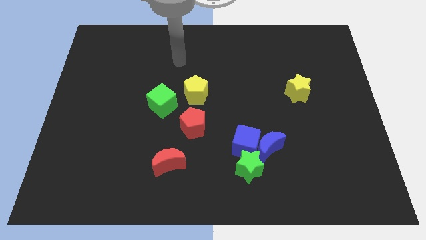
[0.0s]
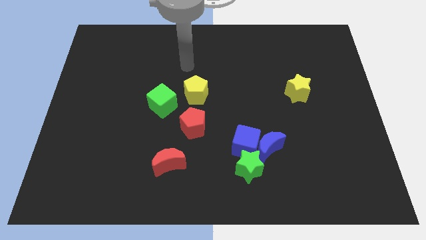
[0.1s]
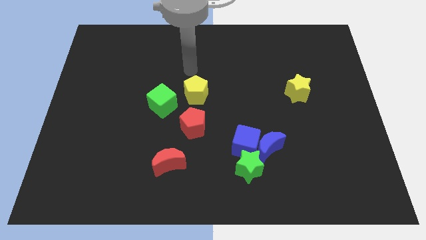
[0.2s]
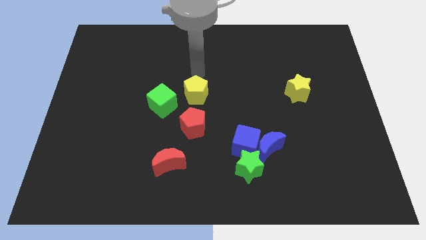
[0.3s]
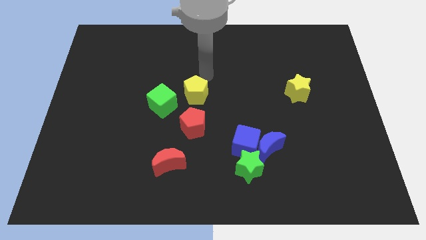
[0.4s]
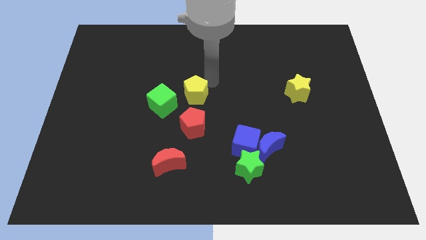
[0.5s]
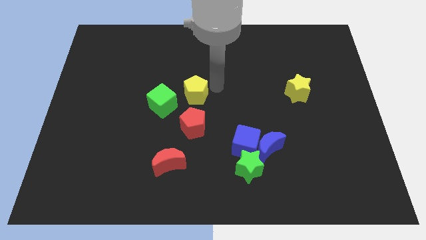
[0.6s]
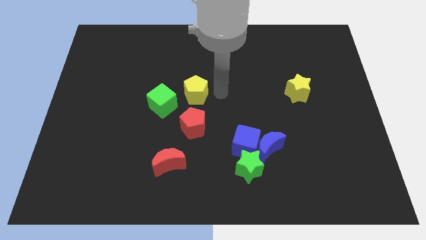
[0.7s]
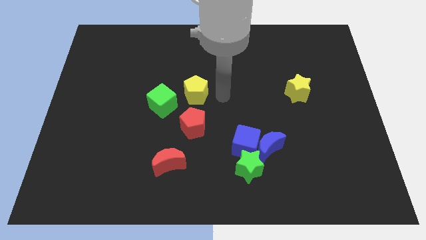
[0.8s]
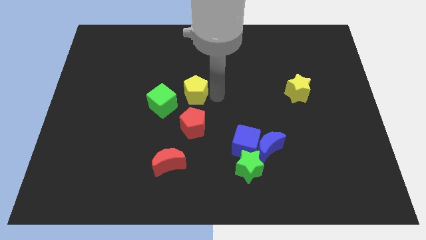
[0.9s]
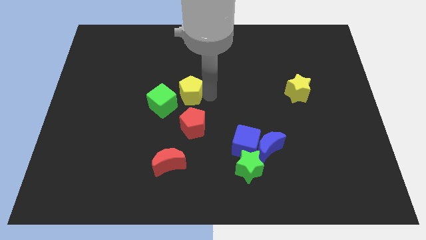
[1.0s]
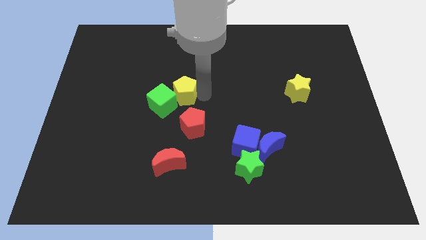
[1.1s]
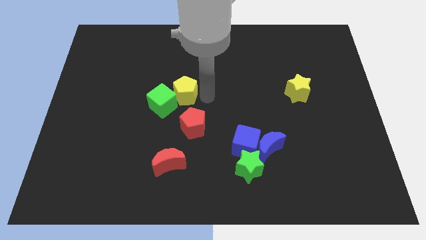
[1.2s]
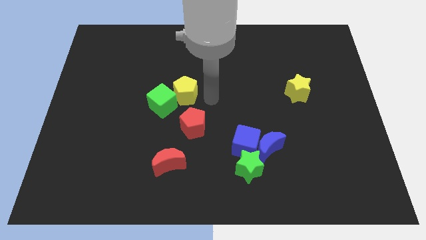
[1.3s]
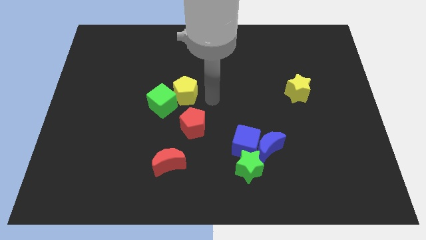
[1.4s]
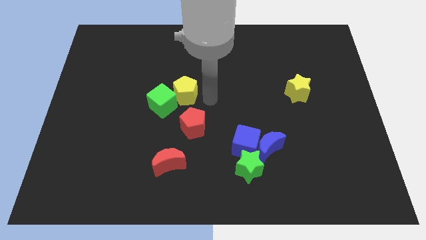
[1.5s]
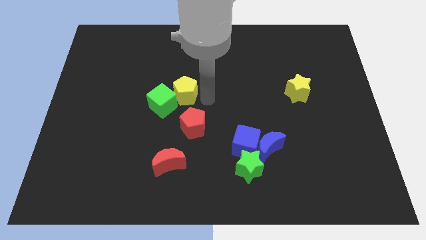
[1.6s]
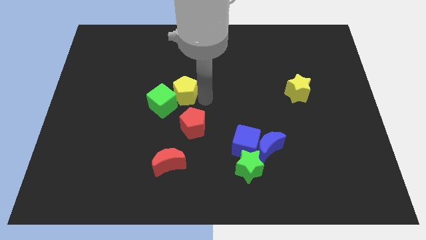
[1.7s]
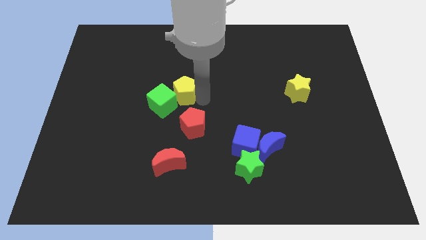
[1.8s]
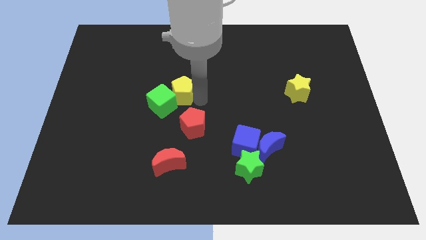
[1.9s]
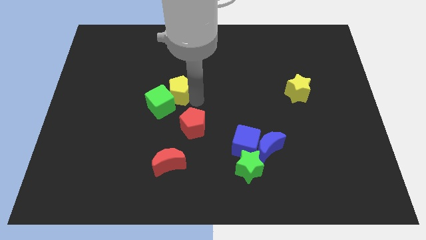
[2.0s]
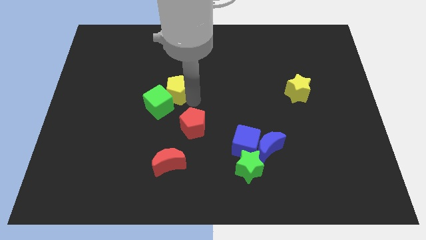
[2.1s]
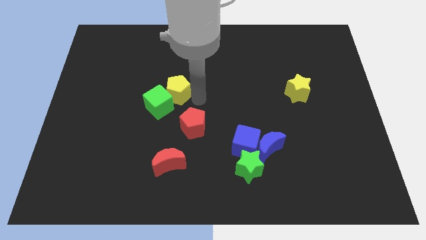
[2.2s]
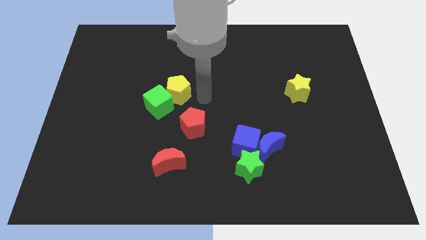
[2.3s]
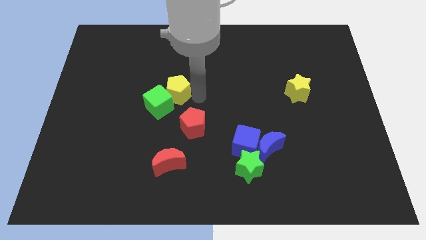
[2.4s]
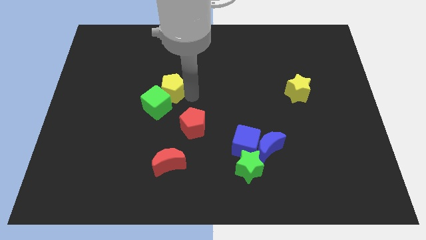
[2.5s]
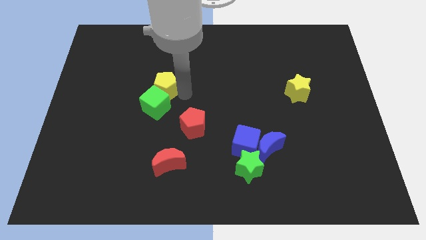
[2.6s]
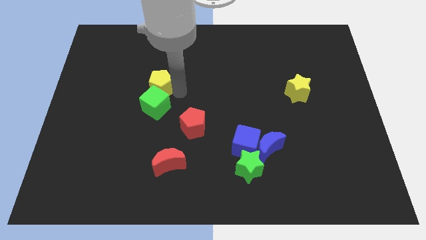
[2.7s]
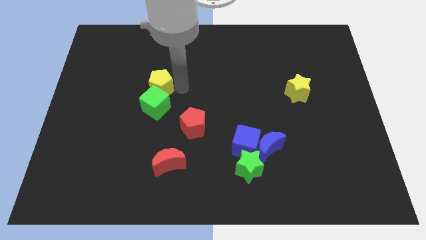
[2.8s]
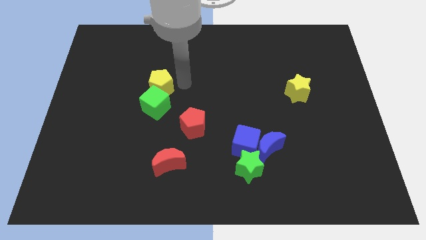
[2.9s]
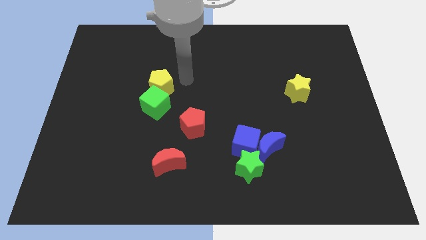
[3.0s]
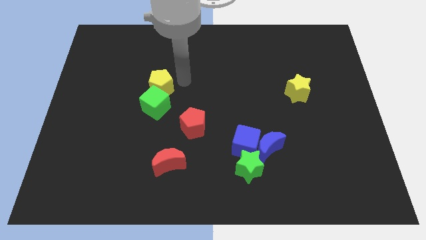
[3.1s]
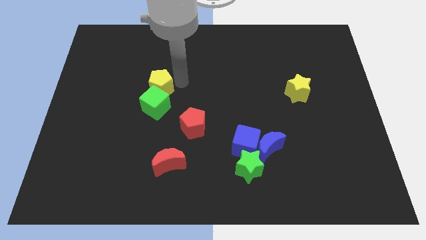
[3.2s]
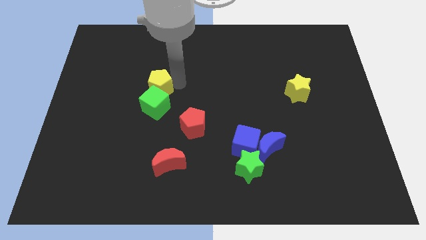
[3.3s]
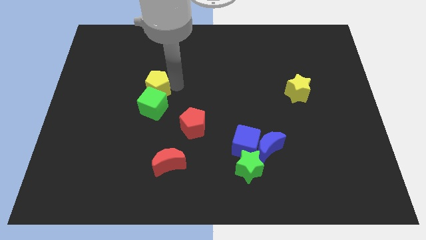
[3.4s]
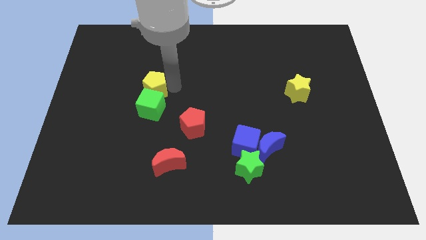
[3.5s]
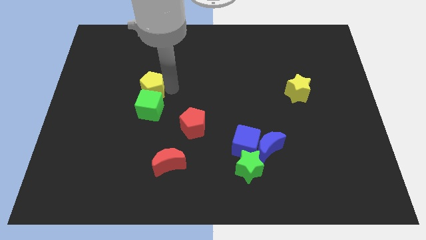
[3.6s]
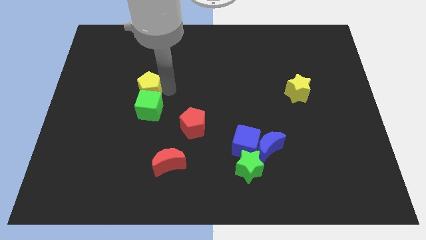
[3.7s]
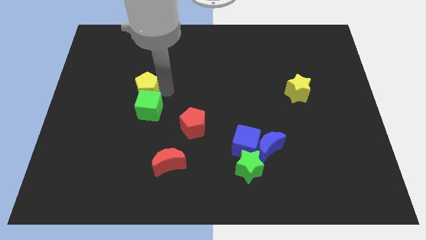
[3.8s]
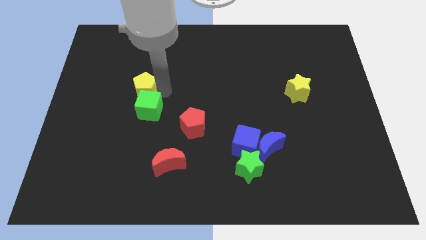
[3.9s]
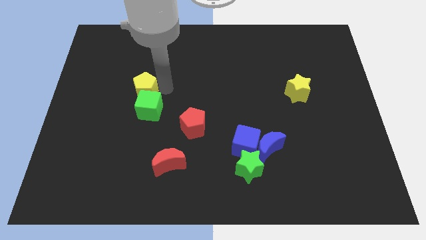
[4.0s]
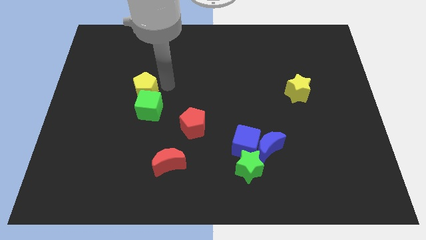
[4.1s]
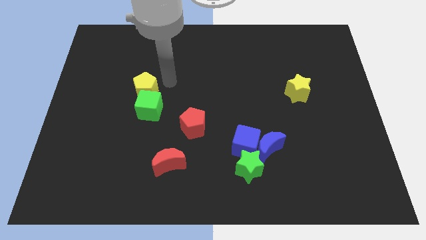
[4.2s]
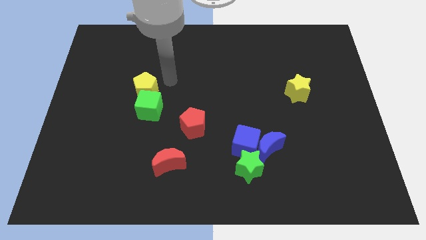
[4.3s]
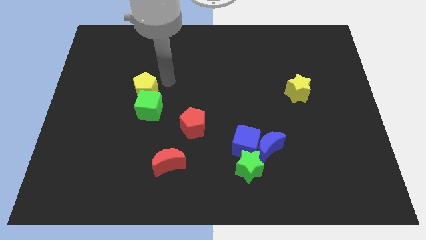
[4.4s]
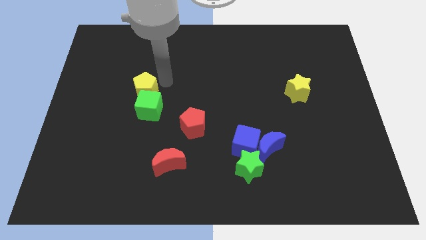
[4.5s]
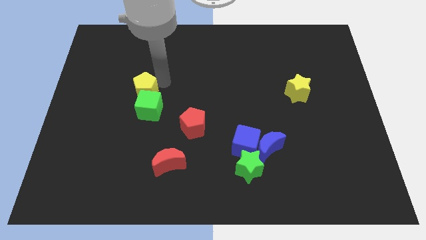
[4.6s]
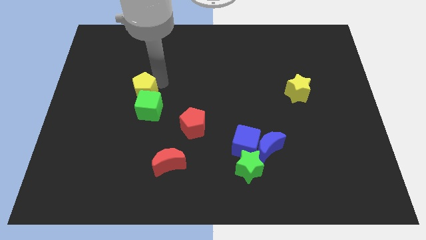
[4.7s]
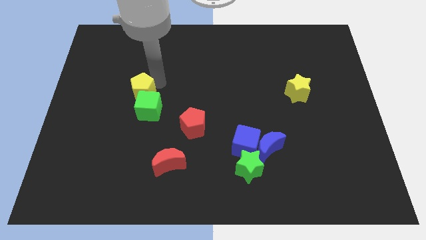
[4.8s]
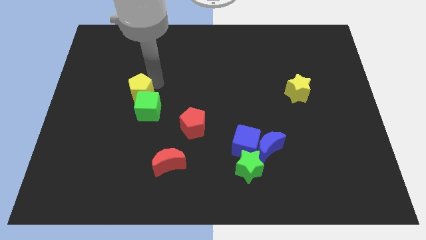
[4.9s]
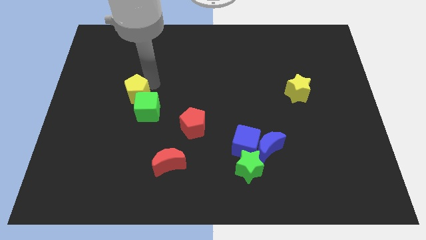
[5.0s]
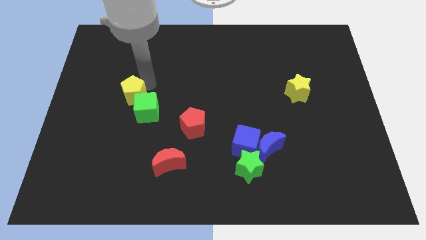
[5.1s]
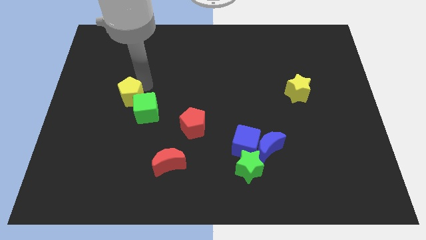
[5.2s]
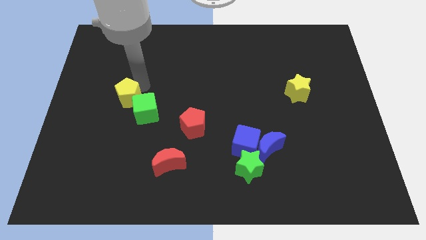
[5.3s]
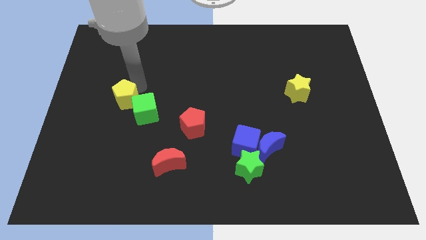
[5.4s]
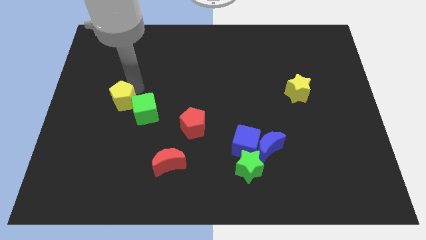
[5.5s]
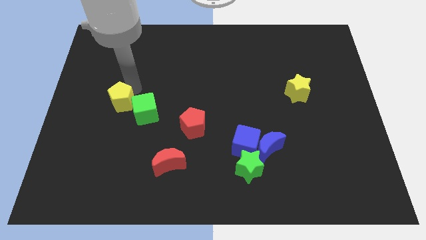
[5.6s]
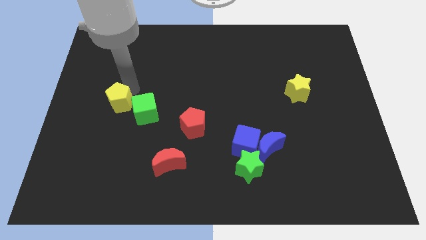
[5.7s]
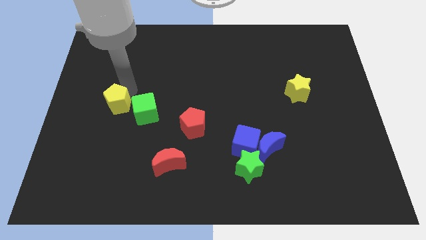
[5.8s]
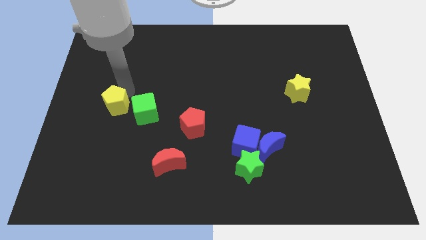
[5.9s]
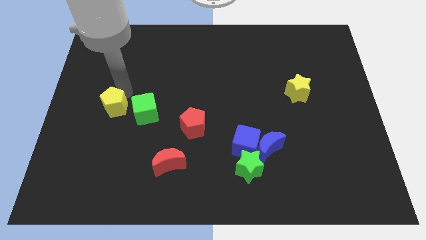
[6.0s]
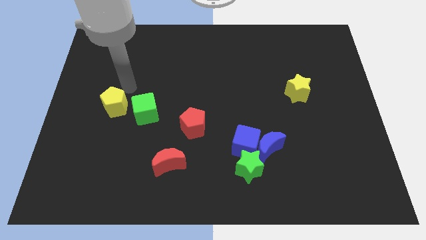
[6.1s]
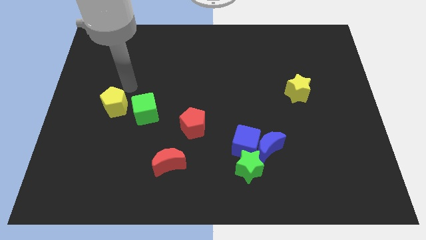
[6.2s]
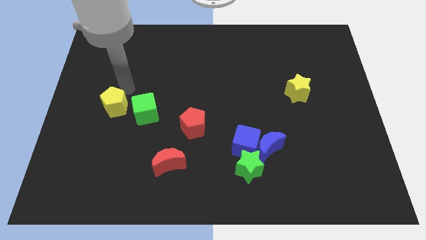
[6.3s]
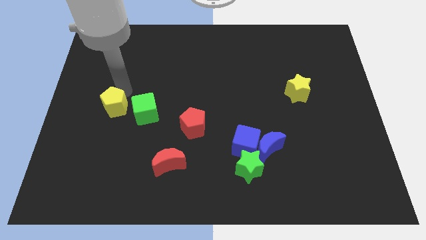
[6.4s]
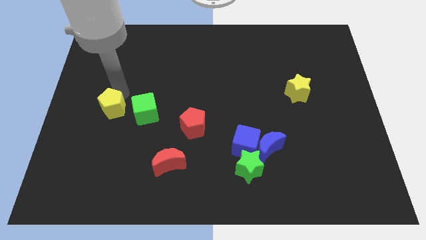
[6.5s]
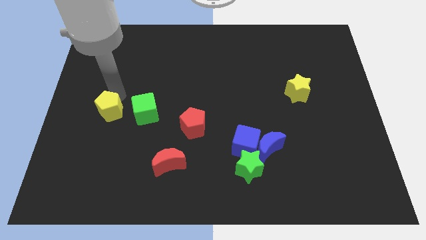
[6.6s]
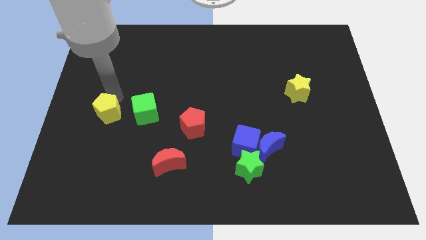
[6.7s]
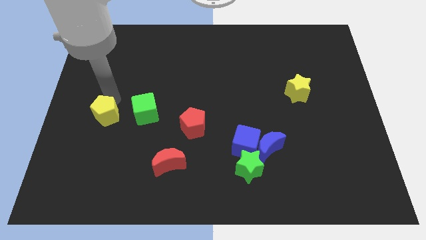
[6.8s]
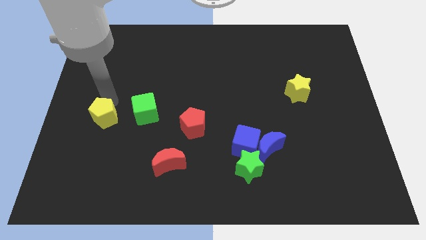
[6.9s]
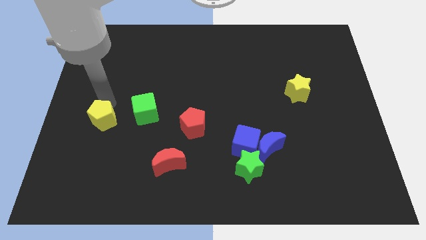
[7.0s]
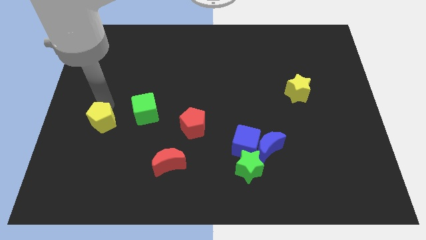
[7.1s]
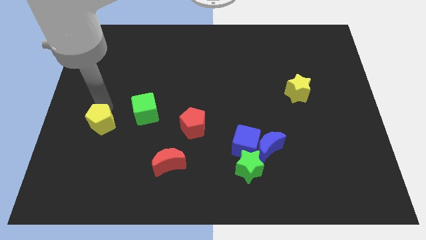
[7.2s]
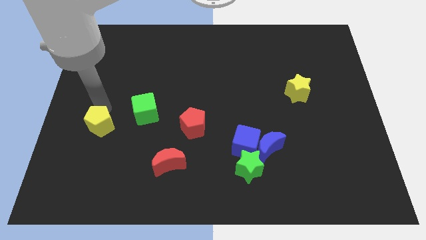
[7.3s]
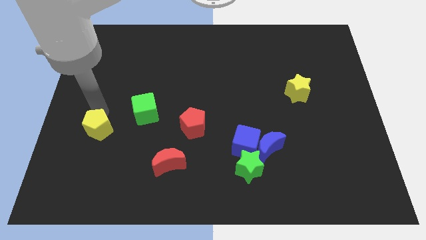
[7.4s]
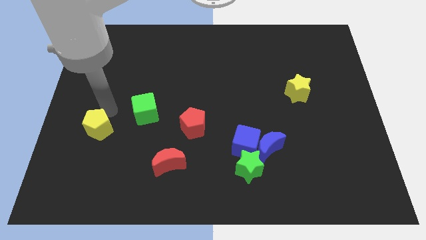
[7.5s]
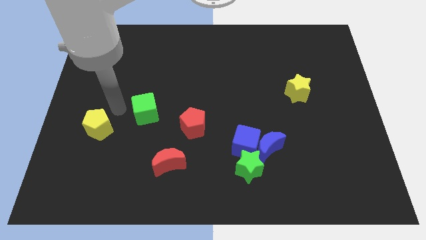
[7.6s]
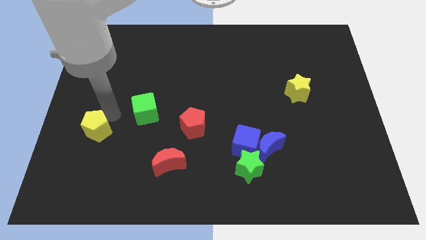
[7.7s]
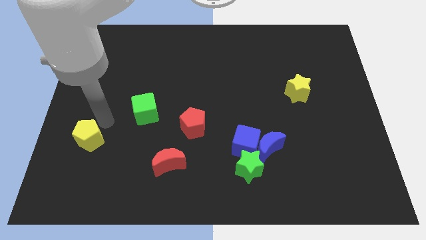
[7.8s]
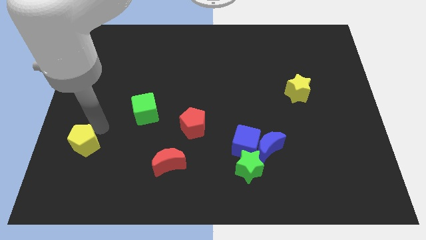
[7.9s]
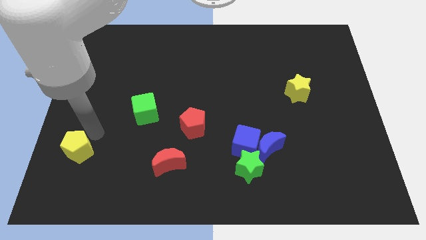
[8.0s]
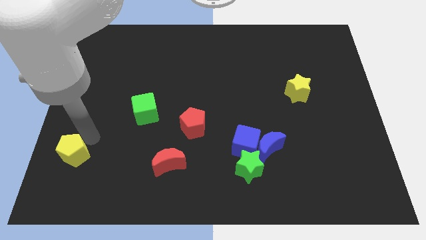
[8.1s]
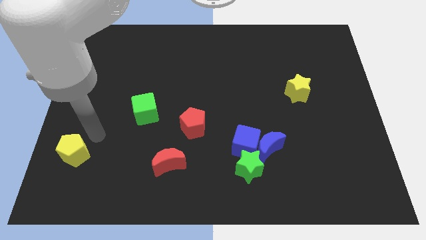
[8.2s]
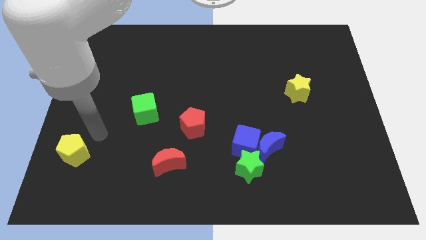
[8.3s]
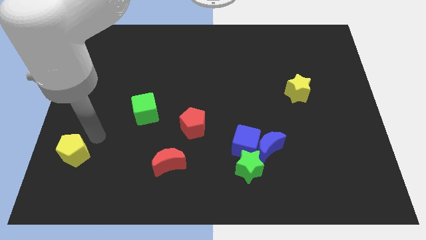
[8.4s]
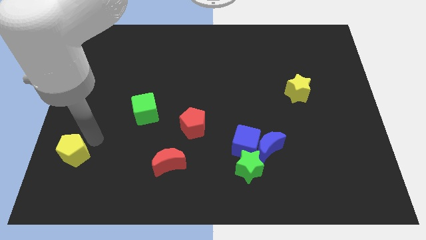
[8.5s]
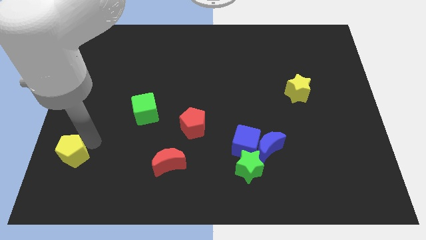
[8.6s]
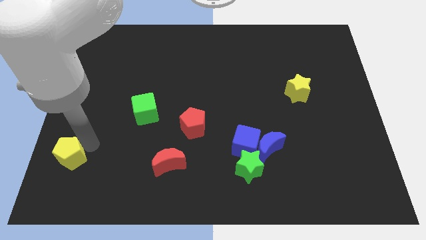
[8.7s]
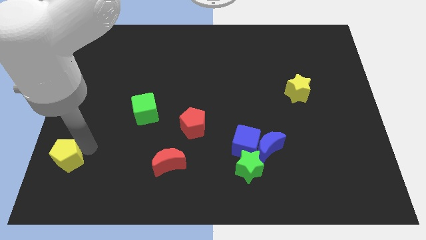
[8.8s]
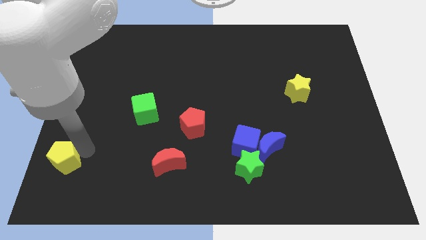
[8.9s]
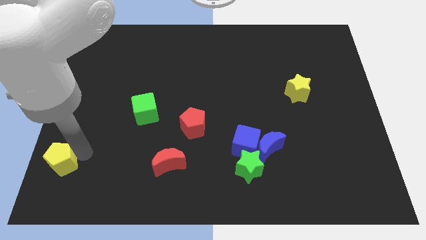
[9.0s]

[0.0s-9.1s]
slide the yellow pentagon to the lower left corner
